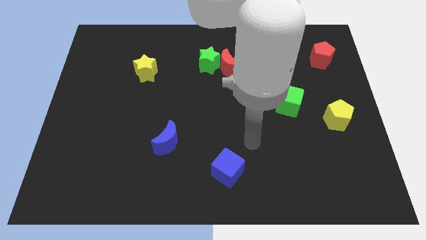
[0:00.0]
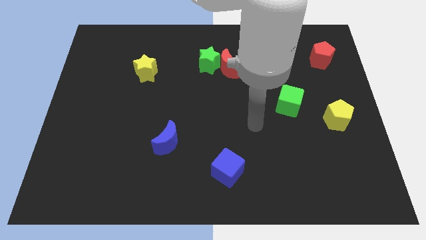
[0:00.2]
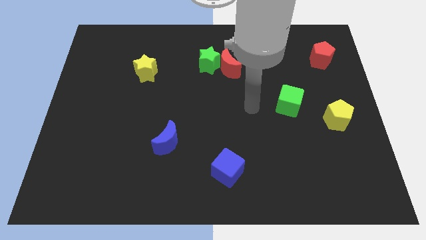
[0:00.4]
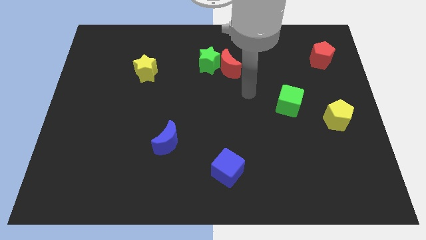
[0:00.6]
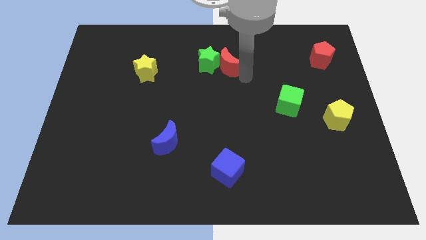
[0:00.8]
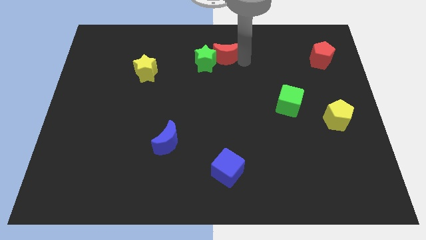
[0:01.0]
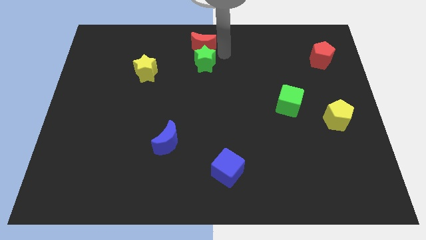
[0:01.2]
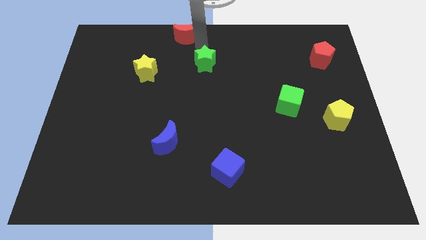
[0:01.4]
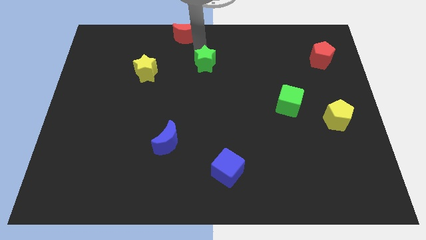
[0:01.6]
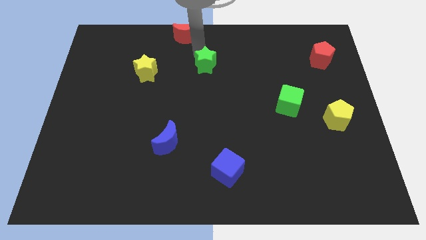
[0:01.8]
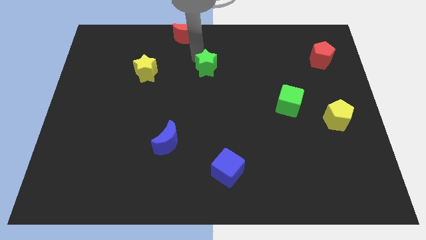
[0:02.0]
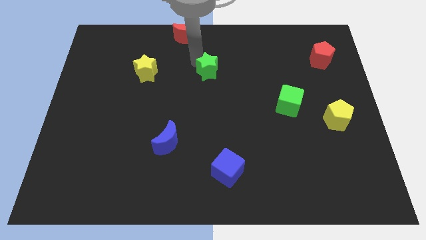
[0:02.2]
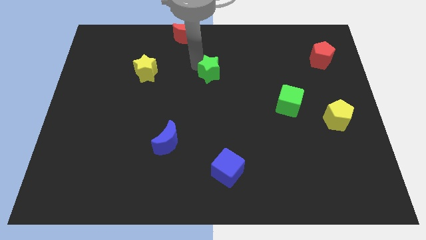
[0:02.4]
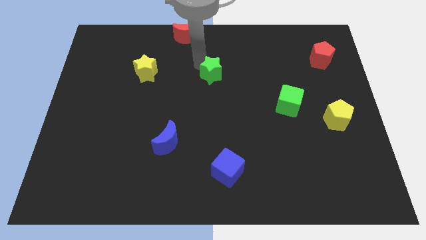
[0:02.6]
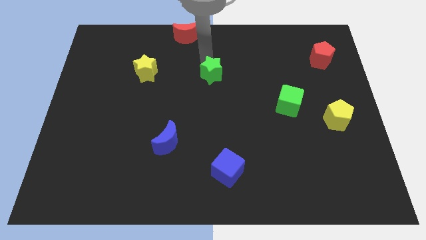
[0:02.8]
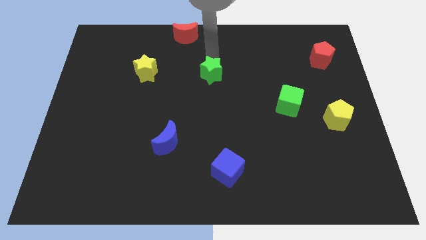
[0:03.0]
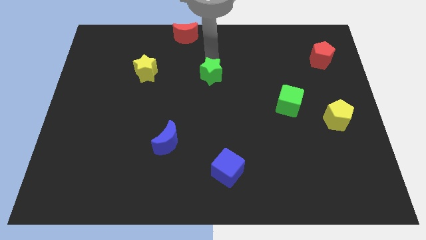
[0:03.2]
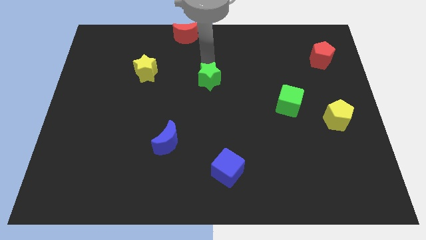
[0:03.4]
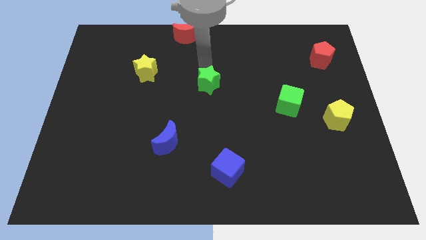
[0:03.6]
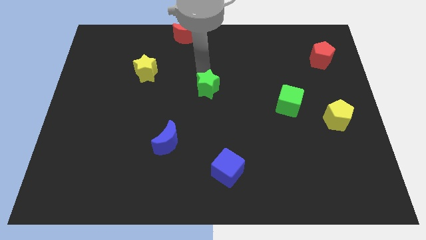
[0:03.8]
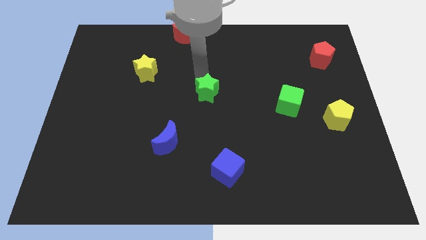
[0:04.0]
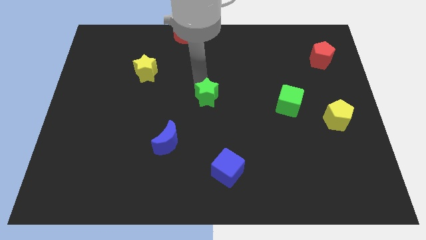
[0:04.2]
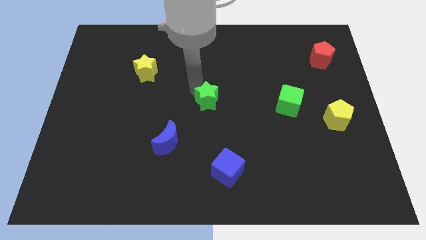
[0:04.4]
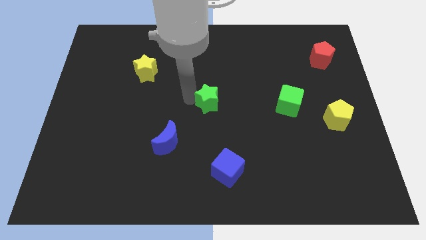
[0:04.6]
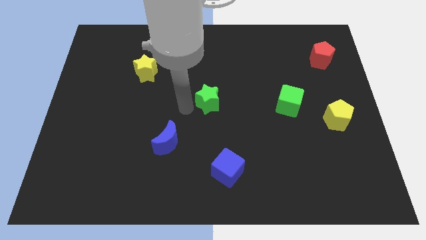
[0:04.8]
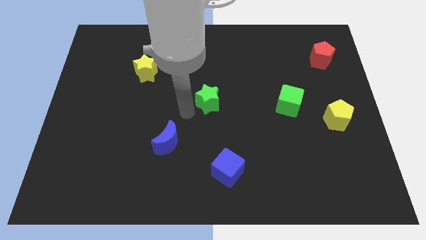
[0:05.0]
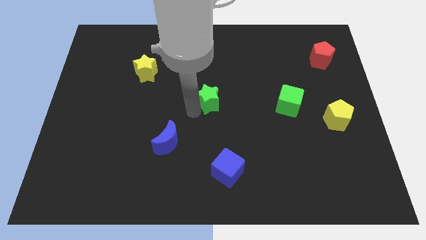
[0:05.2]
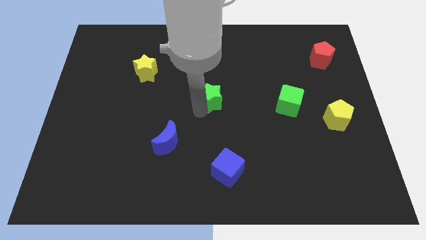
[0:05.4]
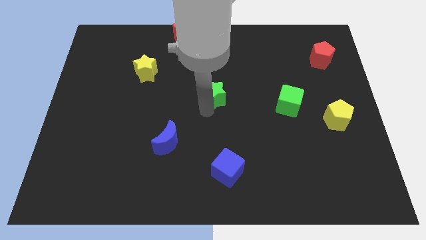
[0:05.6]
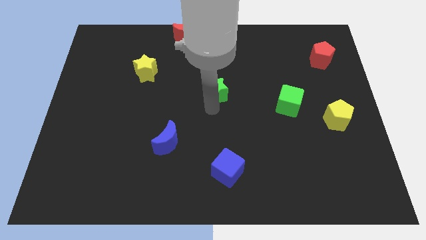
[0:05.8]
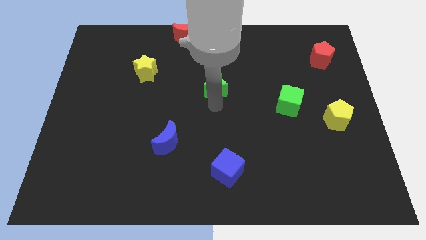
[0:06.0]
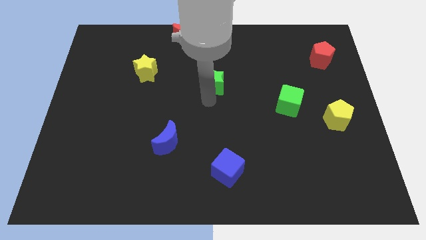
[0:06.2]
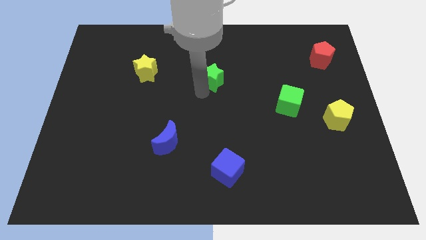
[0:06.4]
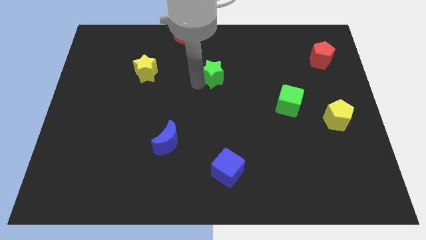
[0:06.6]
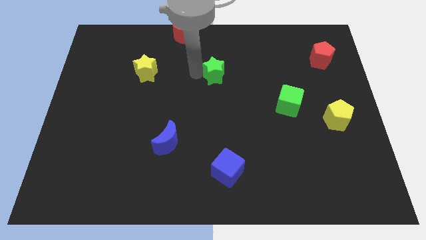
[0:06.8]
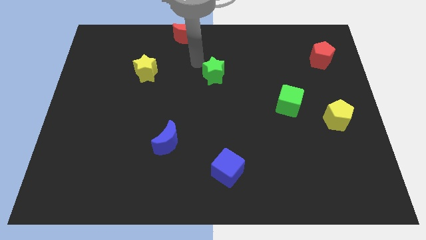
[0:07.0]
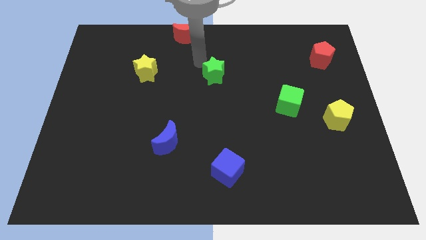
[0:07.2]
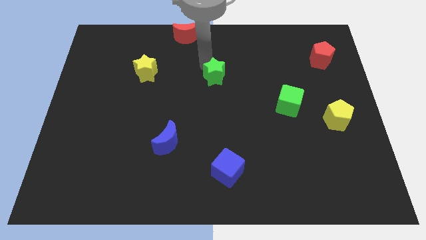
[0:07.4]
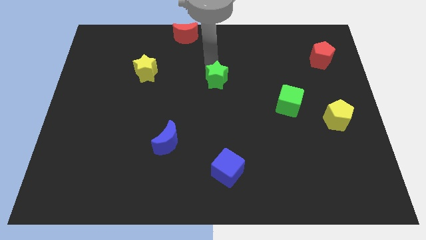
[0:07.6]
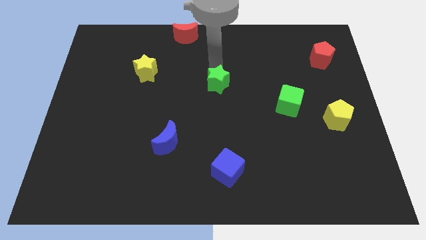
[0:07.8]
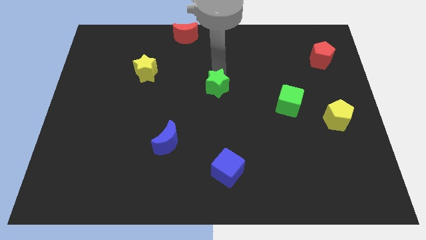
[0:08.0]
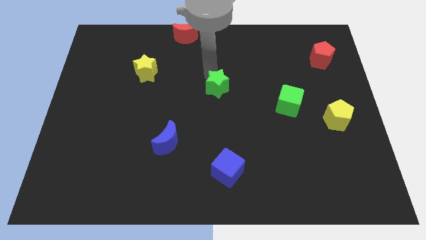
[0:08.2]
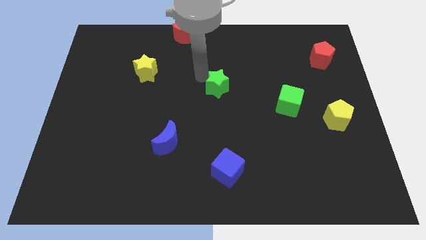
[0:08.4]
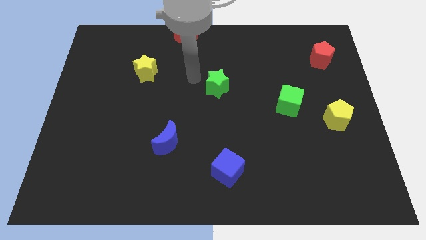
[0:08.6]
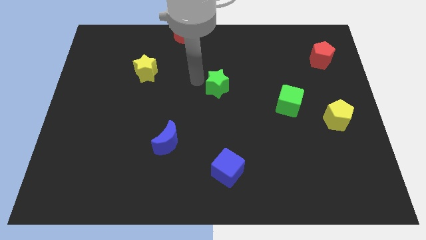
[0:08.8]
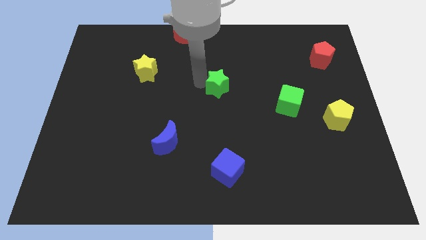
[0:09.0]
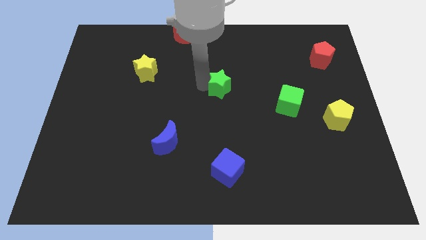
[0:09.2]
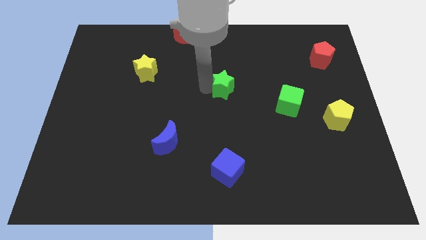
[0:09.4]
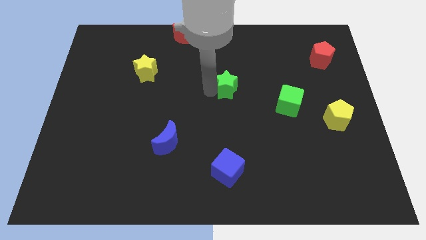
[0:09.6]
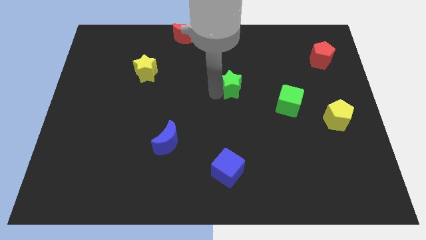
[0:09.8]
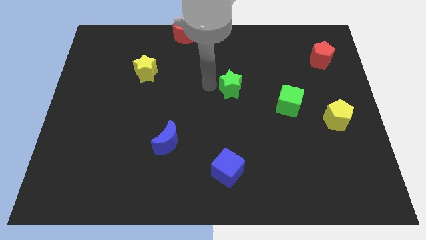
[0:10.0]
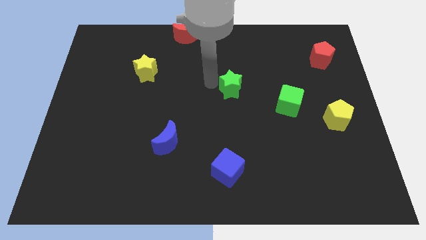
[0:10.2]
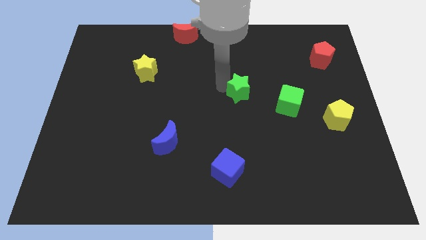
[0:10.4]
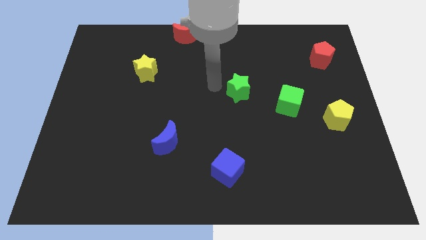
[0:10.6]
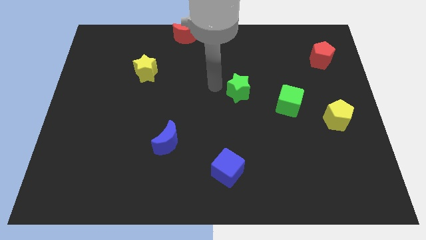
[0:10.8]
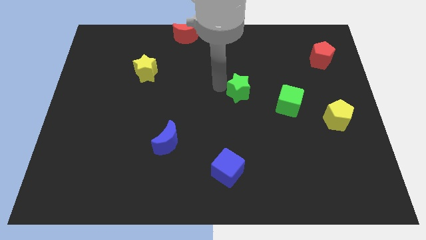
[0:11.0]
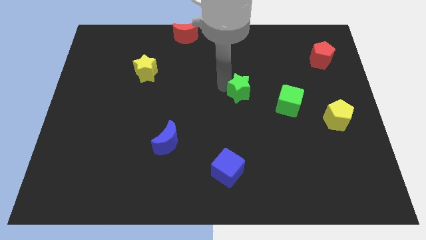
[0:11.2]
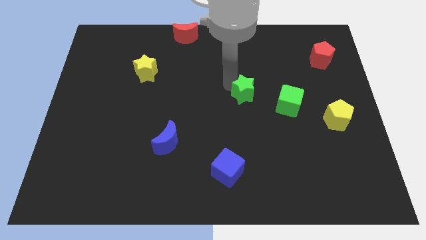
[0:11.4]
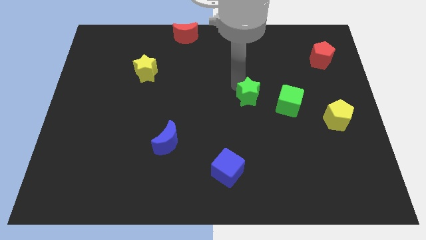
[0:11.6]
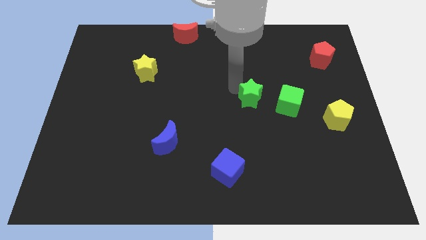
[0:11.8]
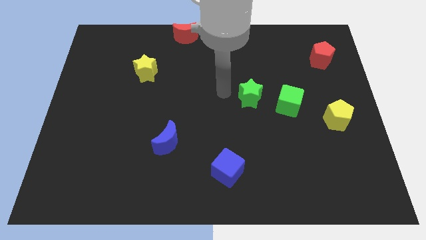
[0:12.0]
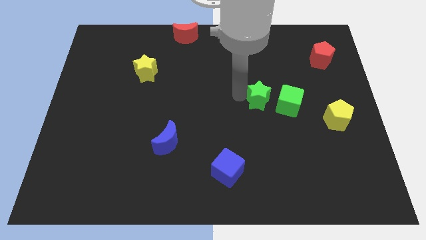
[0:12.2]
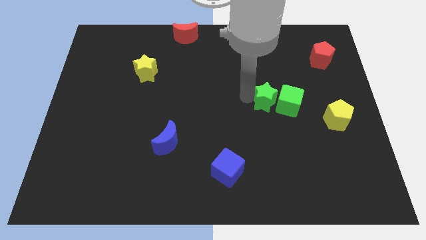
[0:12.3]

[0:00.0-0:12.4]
push the green star to the green cube

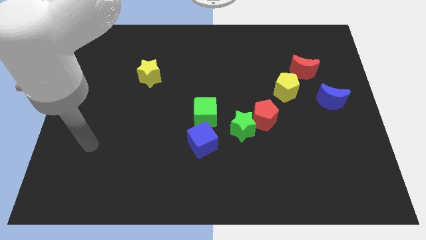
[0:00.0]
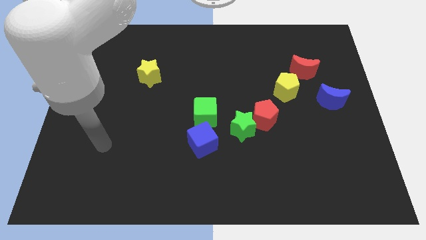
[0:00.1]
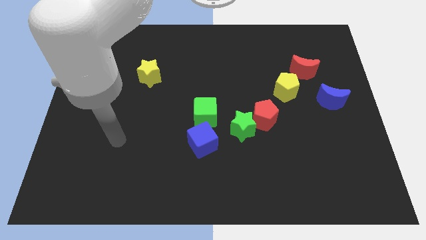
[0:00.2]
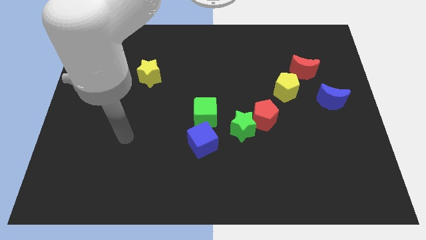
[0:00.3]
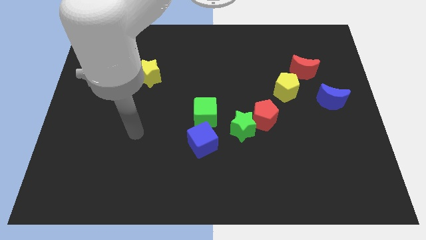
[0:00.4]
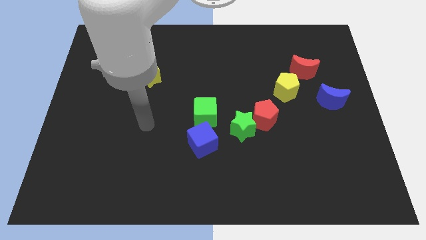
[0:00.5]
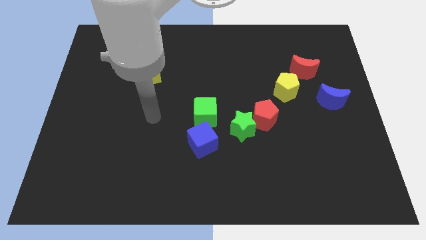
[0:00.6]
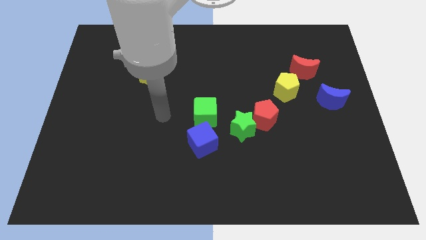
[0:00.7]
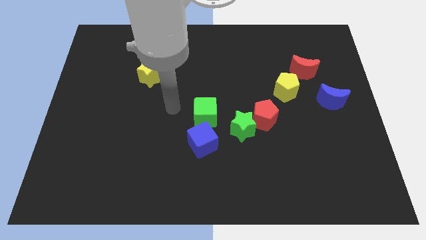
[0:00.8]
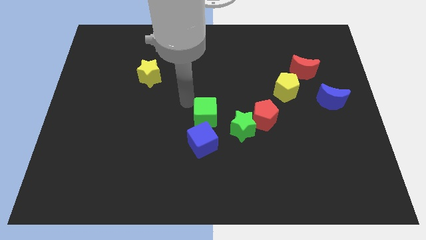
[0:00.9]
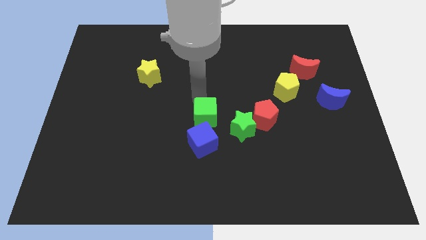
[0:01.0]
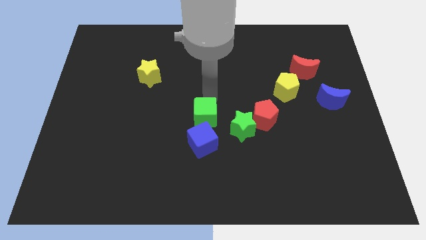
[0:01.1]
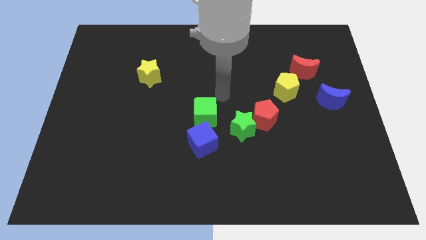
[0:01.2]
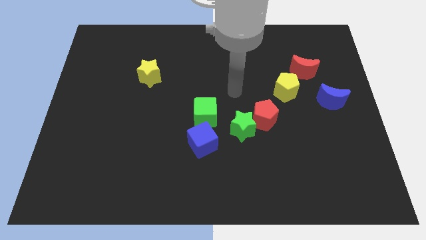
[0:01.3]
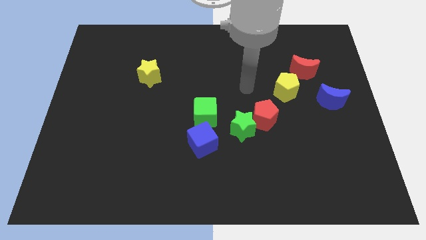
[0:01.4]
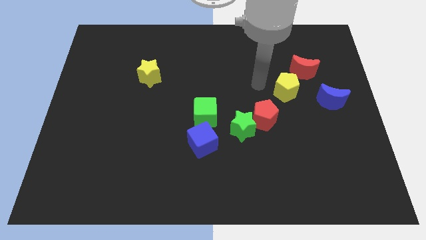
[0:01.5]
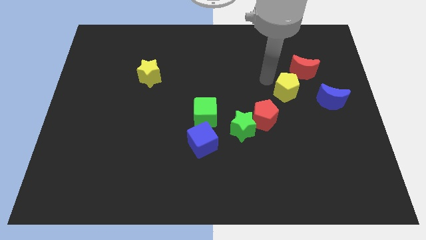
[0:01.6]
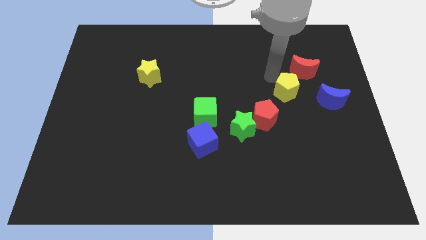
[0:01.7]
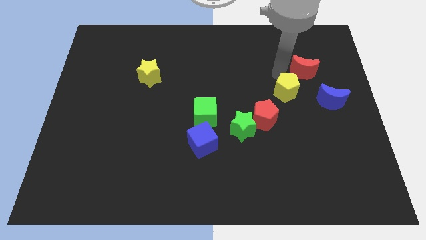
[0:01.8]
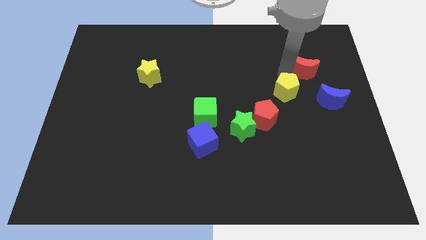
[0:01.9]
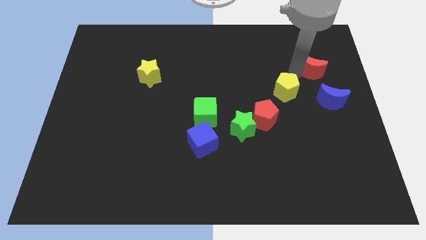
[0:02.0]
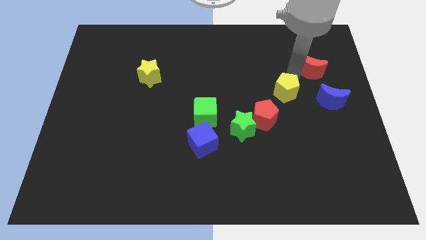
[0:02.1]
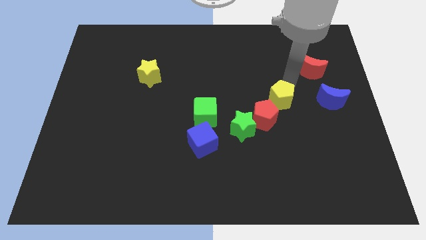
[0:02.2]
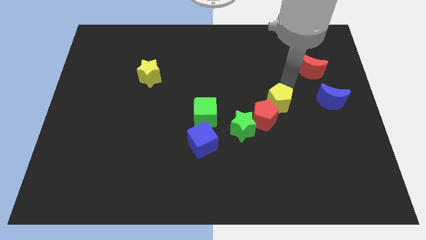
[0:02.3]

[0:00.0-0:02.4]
slide the yellow pentagon to the red pentagon

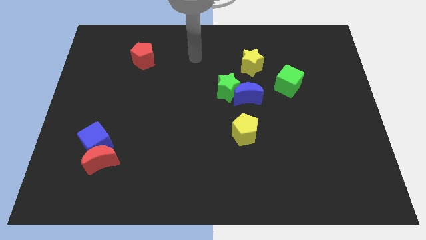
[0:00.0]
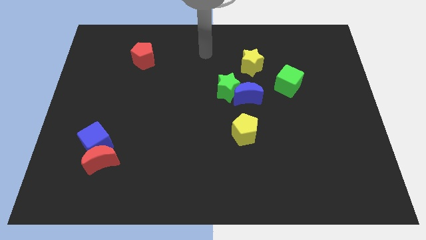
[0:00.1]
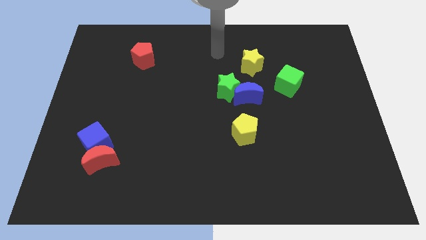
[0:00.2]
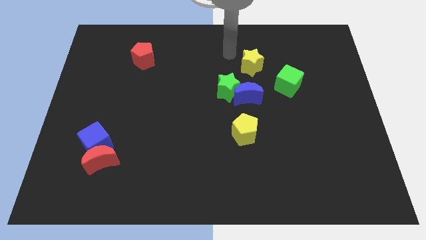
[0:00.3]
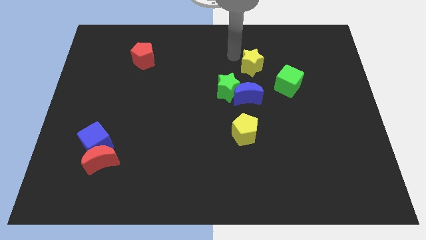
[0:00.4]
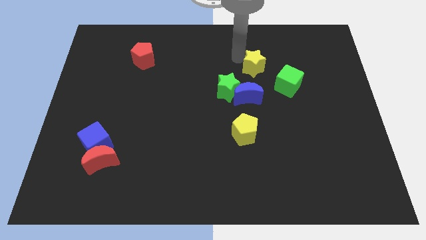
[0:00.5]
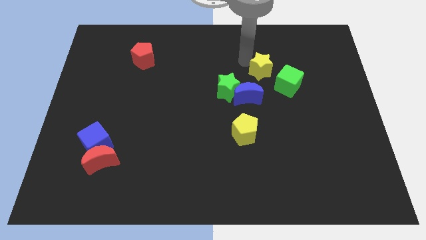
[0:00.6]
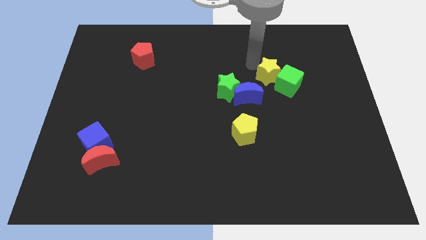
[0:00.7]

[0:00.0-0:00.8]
put the yellow star towards the green cube
